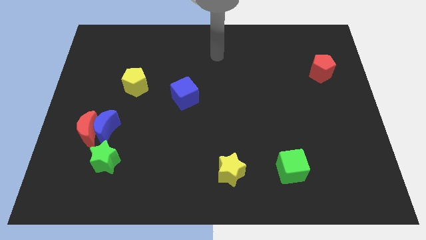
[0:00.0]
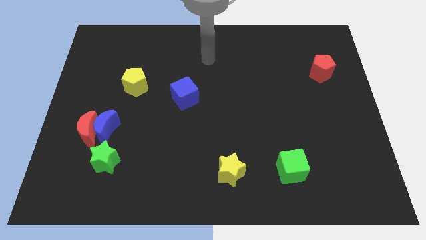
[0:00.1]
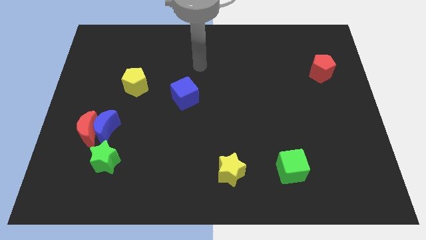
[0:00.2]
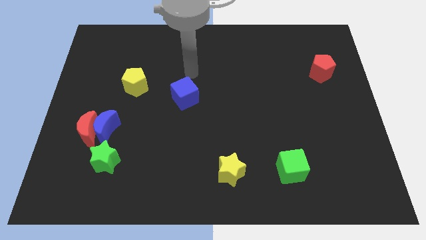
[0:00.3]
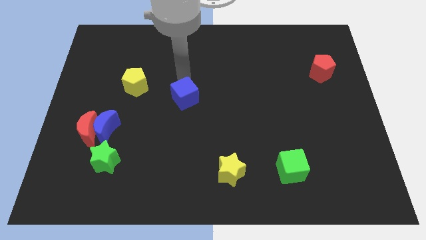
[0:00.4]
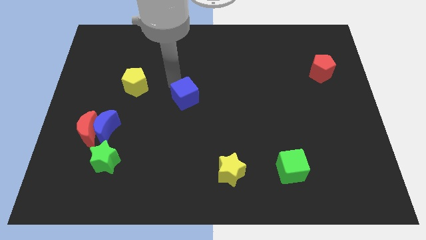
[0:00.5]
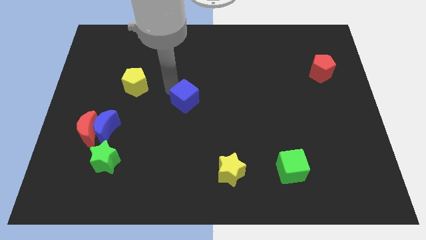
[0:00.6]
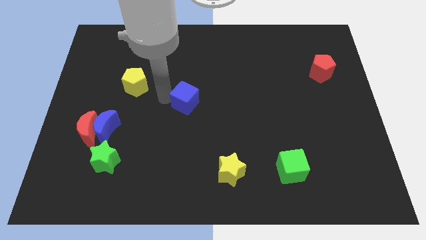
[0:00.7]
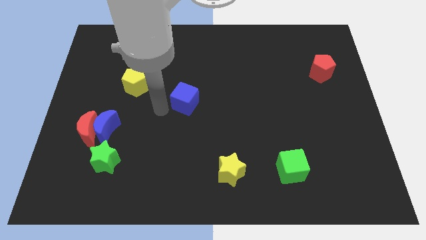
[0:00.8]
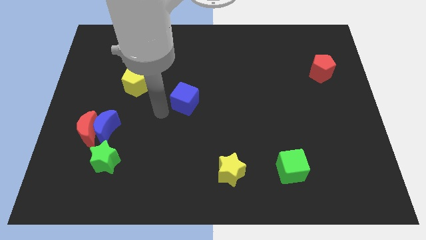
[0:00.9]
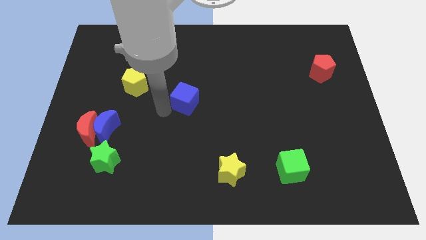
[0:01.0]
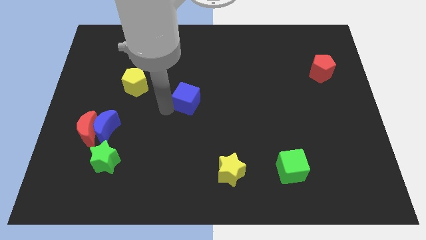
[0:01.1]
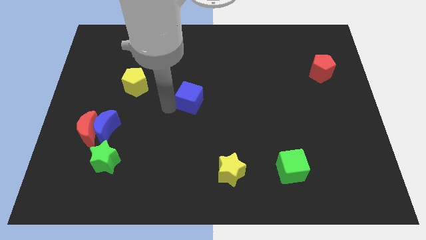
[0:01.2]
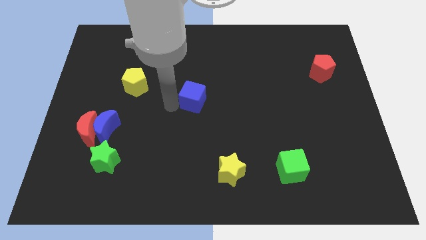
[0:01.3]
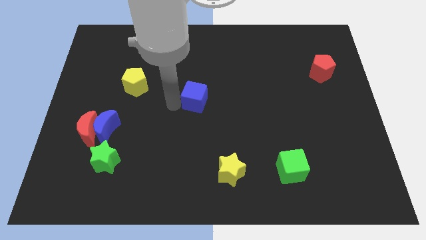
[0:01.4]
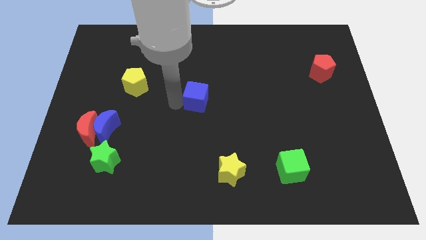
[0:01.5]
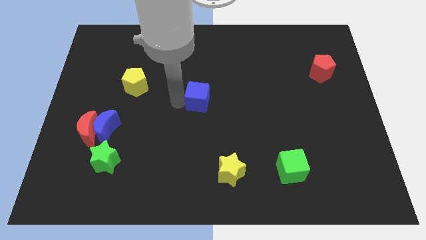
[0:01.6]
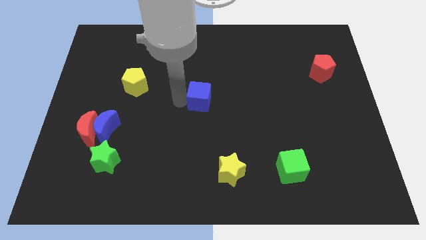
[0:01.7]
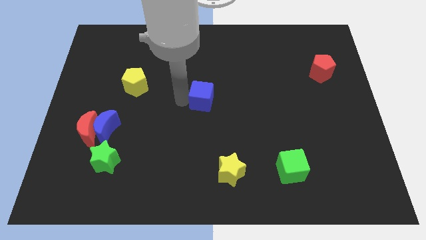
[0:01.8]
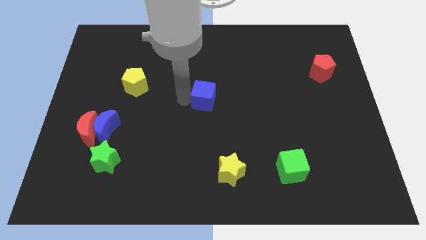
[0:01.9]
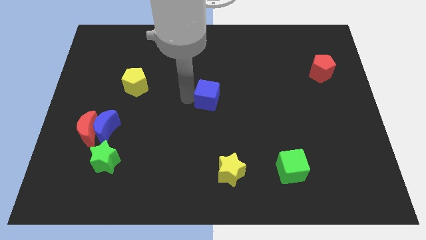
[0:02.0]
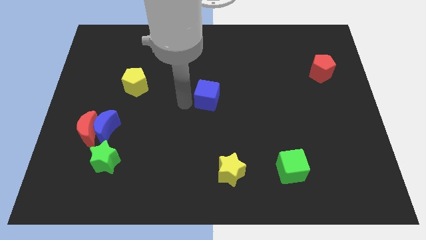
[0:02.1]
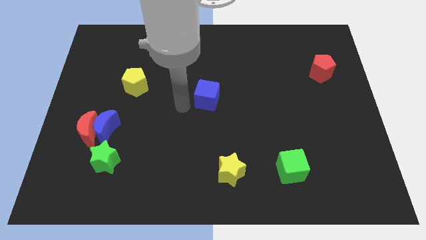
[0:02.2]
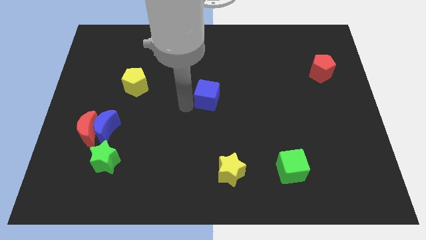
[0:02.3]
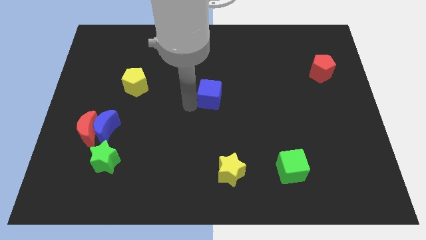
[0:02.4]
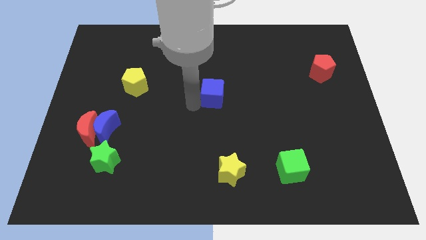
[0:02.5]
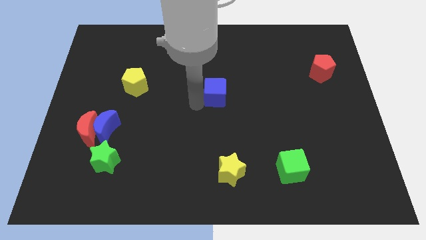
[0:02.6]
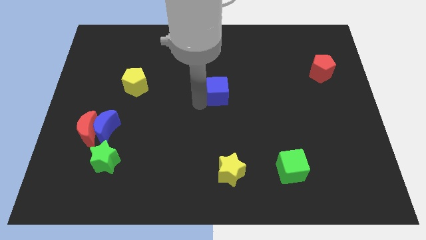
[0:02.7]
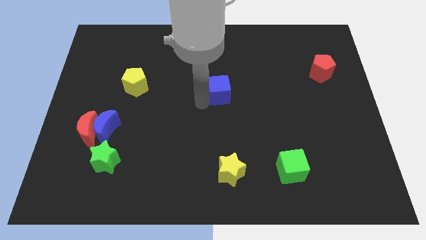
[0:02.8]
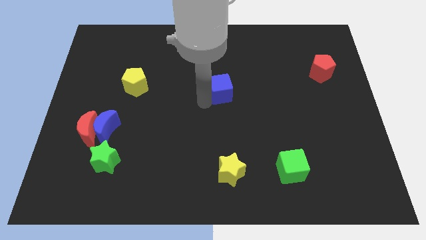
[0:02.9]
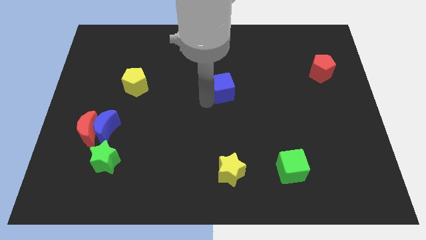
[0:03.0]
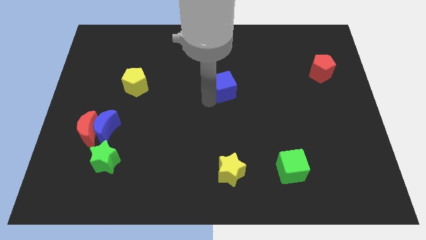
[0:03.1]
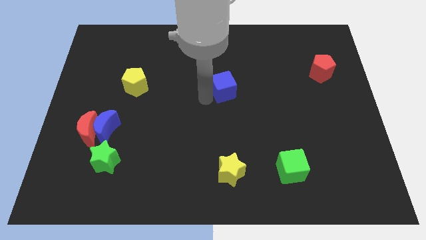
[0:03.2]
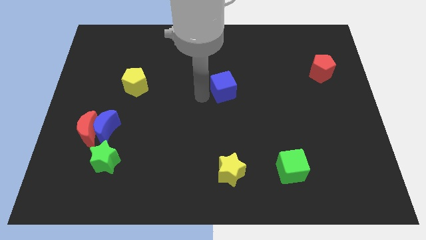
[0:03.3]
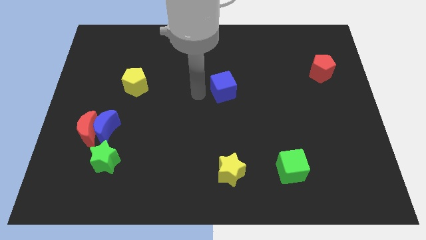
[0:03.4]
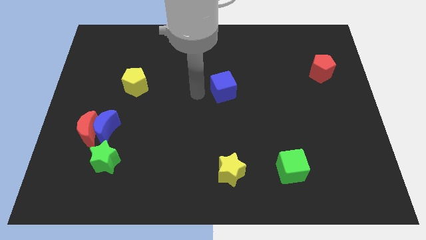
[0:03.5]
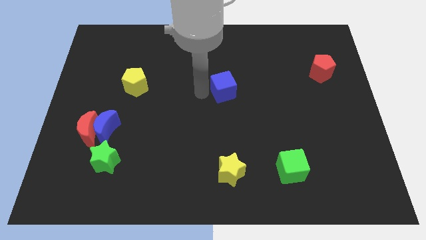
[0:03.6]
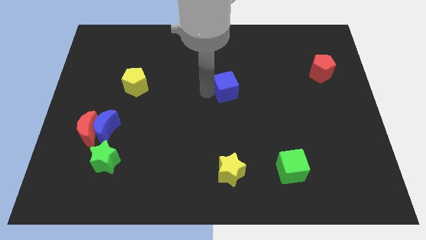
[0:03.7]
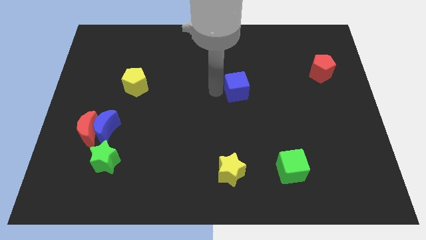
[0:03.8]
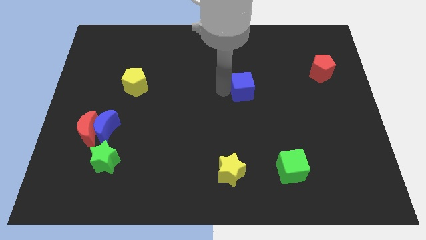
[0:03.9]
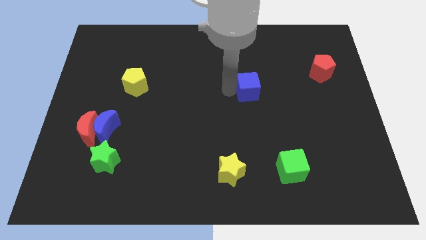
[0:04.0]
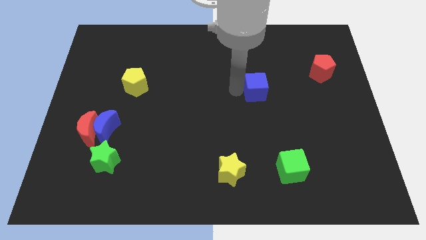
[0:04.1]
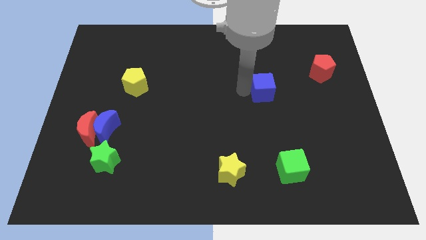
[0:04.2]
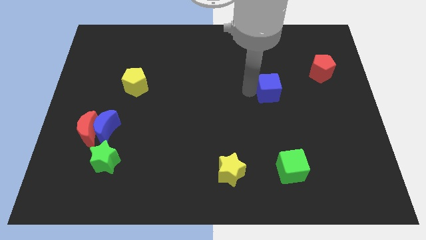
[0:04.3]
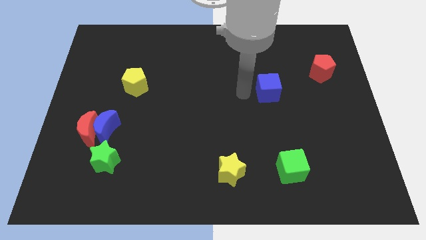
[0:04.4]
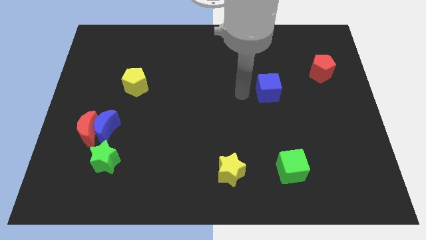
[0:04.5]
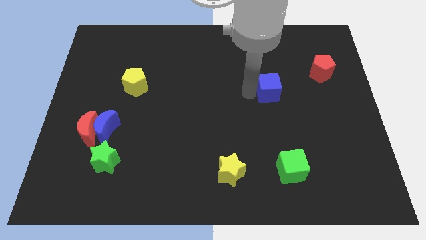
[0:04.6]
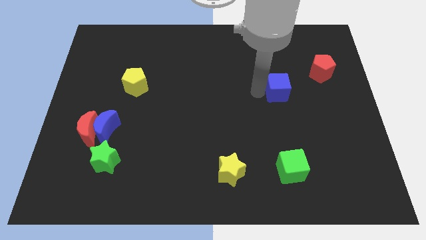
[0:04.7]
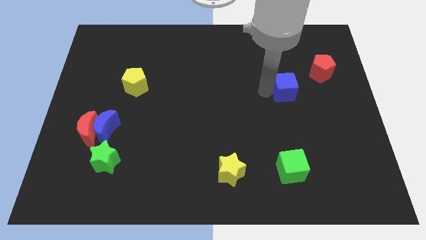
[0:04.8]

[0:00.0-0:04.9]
push the blue cube to the bottom left of the red pentagon

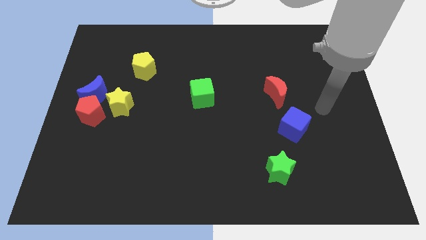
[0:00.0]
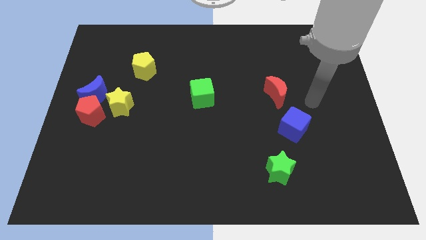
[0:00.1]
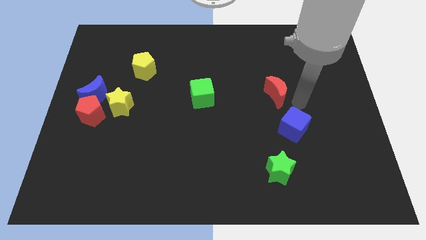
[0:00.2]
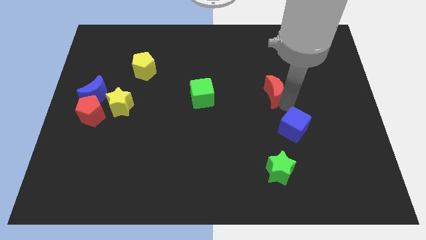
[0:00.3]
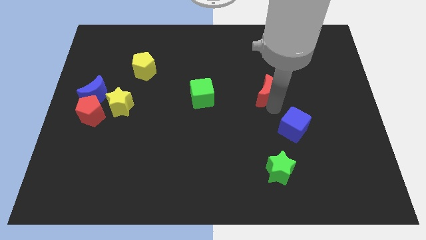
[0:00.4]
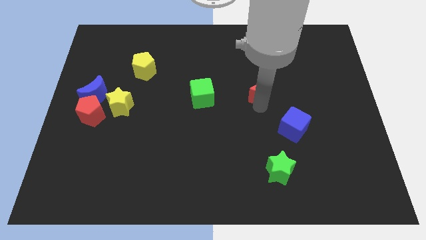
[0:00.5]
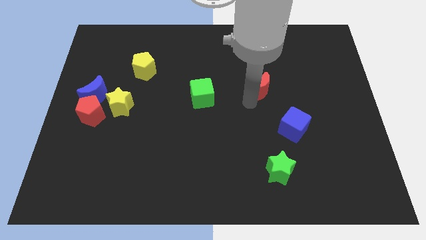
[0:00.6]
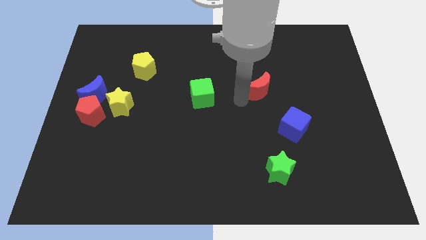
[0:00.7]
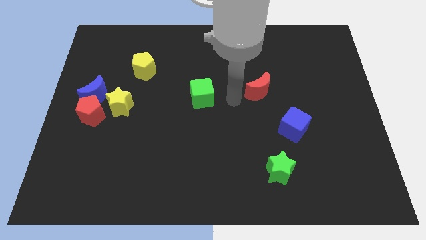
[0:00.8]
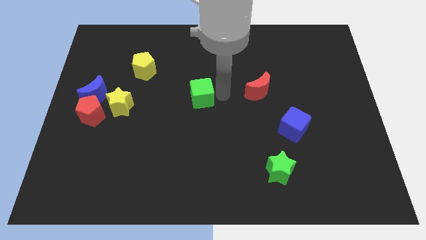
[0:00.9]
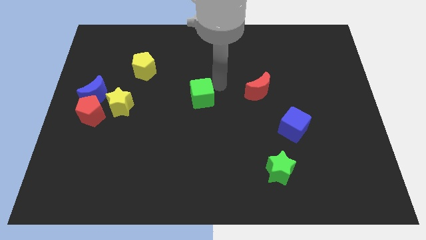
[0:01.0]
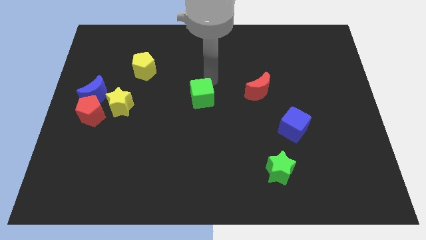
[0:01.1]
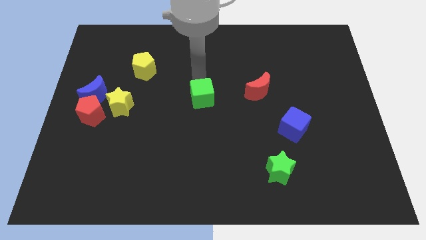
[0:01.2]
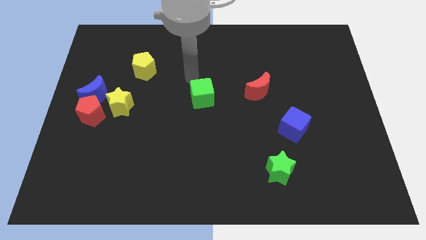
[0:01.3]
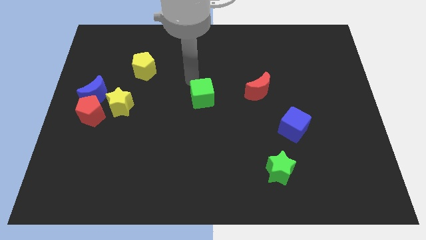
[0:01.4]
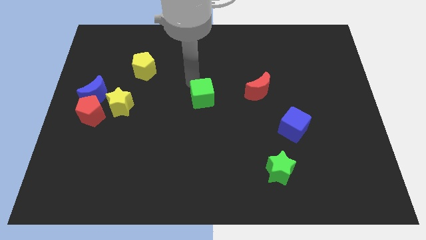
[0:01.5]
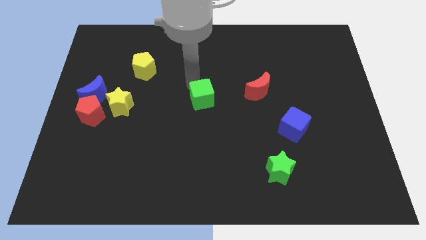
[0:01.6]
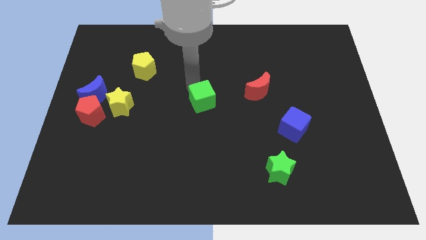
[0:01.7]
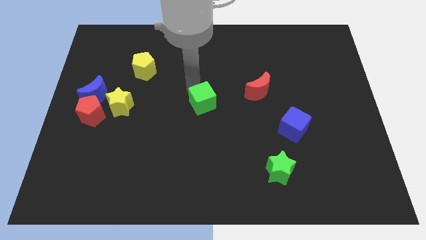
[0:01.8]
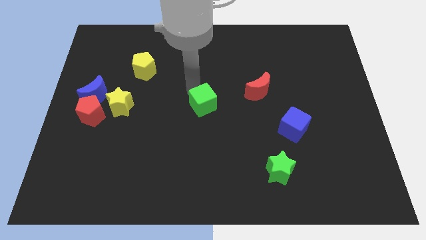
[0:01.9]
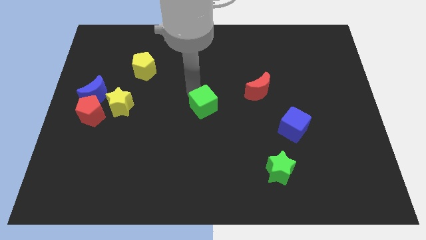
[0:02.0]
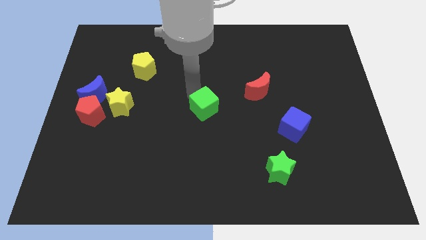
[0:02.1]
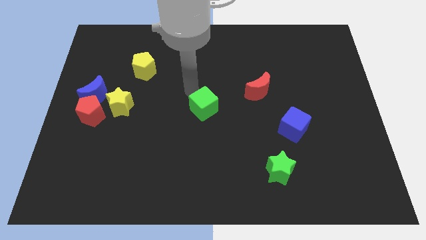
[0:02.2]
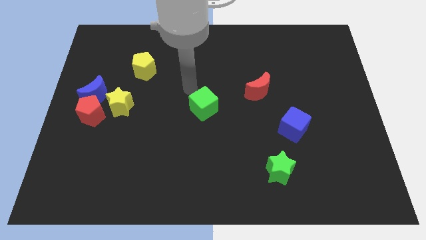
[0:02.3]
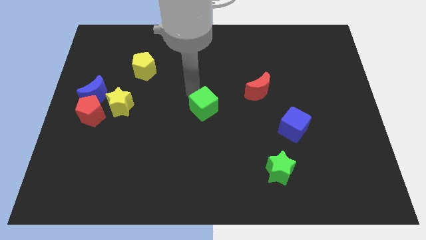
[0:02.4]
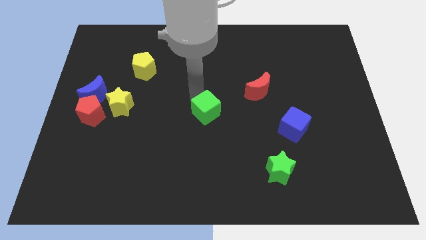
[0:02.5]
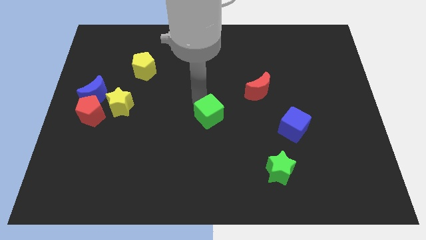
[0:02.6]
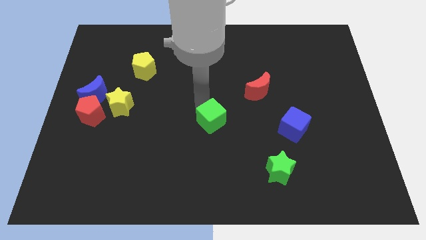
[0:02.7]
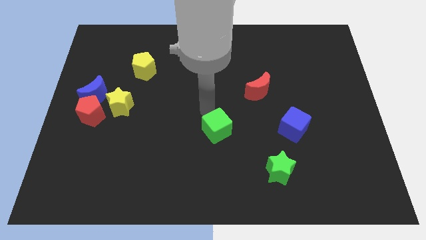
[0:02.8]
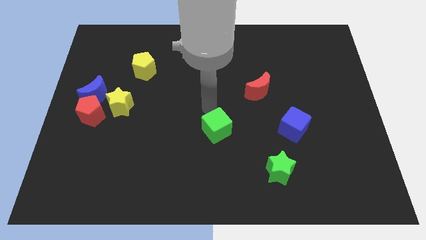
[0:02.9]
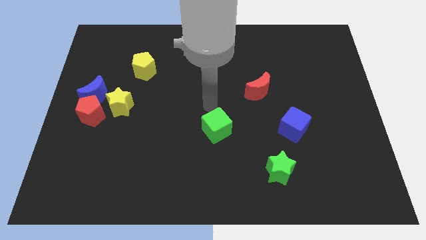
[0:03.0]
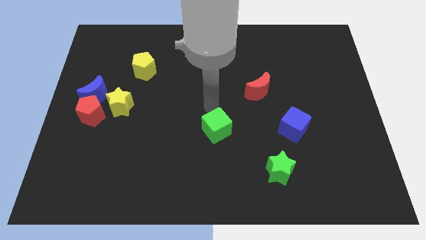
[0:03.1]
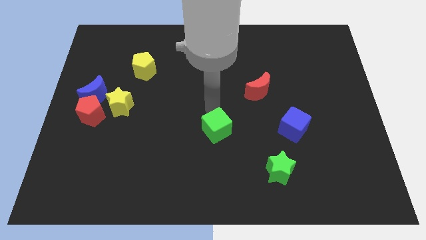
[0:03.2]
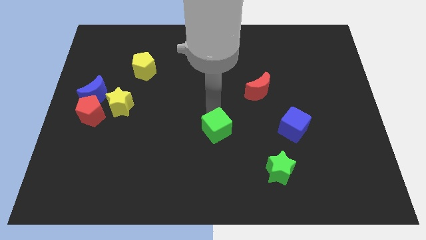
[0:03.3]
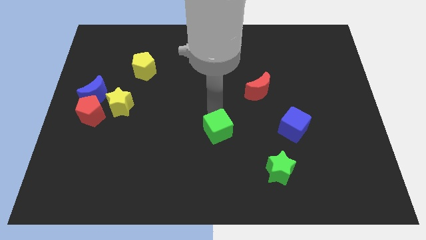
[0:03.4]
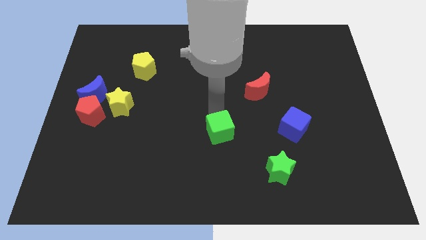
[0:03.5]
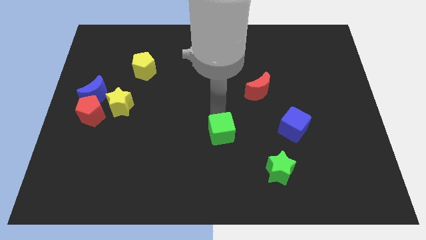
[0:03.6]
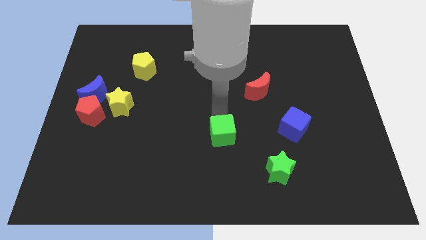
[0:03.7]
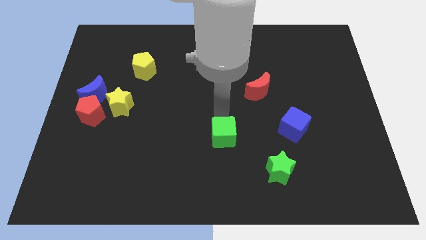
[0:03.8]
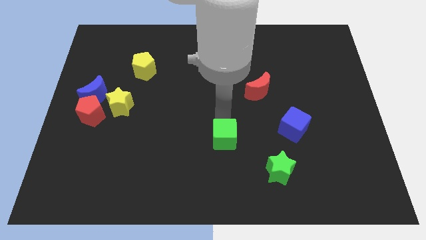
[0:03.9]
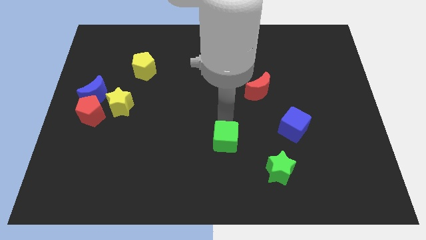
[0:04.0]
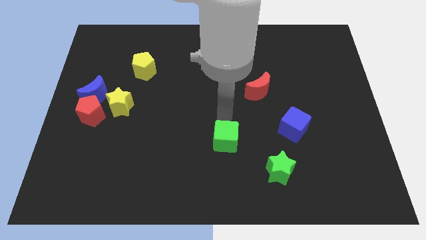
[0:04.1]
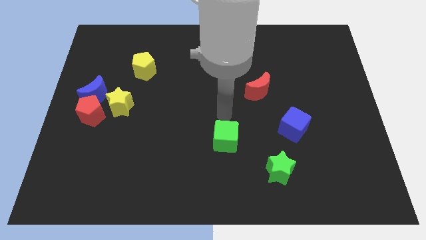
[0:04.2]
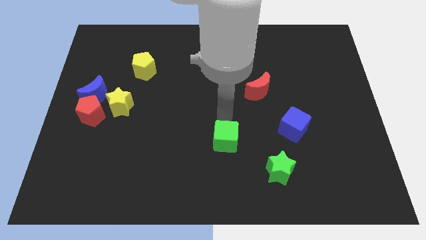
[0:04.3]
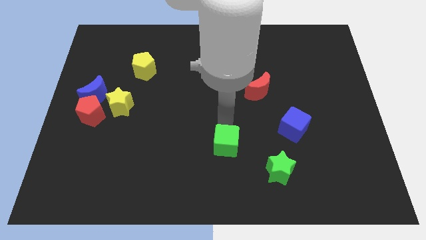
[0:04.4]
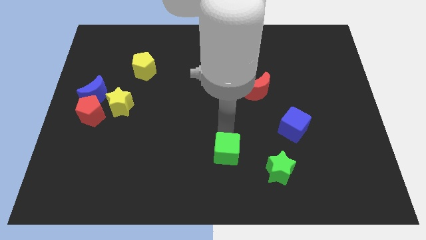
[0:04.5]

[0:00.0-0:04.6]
slide the green cube just left of the green star
